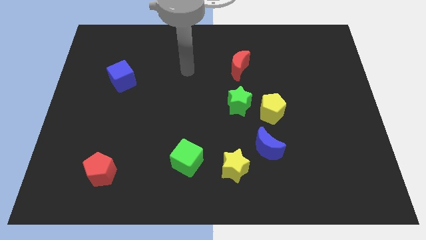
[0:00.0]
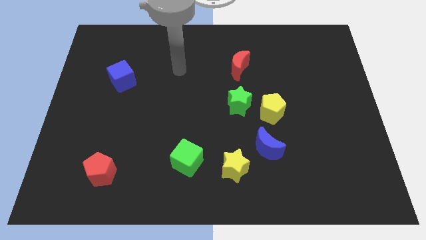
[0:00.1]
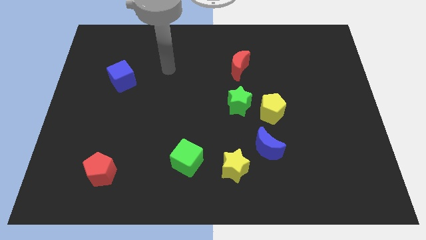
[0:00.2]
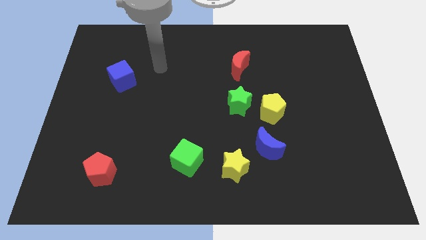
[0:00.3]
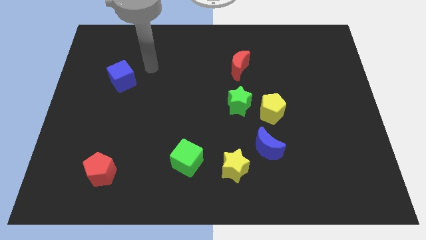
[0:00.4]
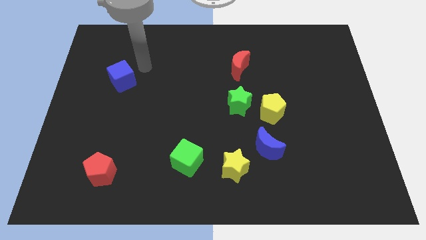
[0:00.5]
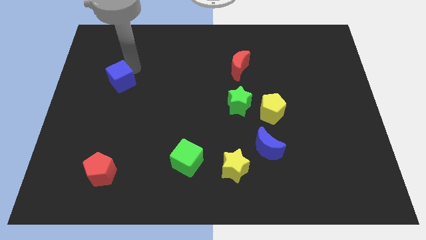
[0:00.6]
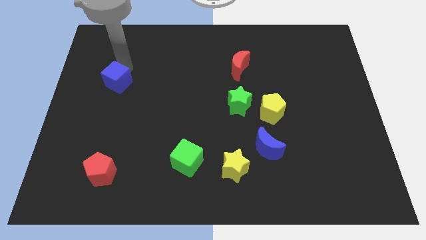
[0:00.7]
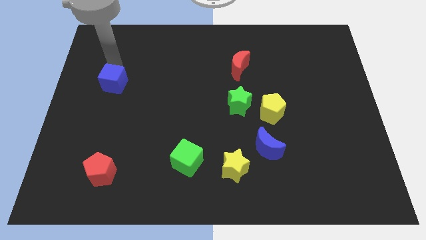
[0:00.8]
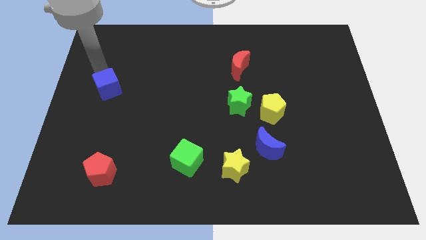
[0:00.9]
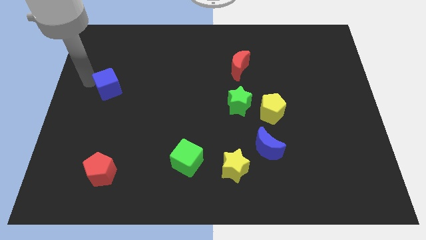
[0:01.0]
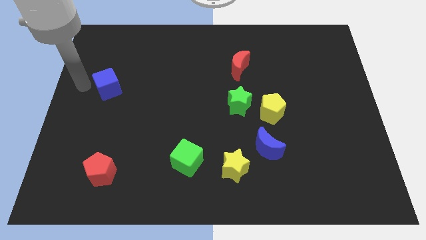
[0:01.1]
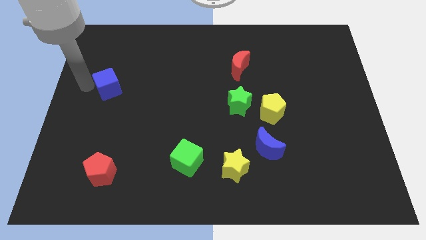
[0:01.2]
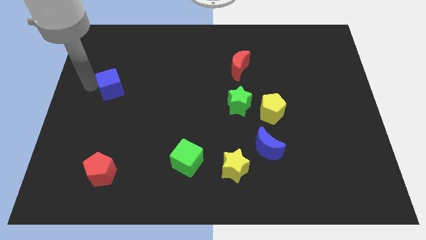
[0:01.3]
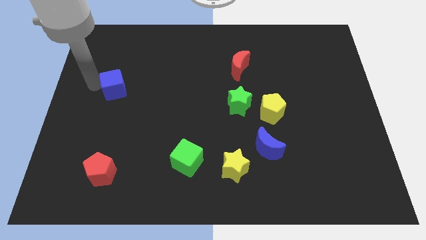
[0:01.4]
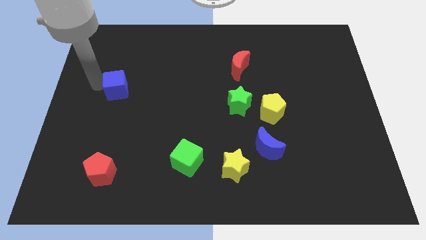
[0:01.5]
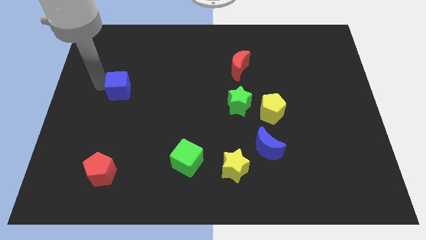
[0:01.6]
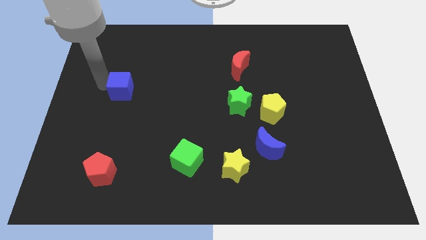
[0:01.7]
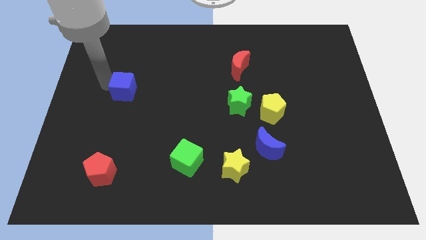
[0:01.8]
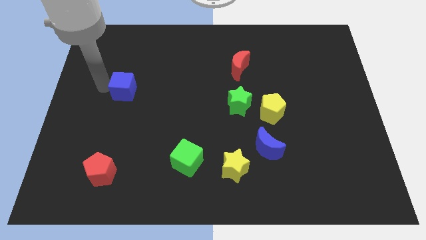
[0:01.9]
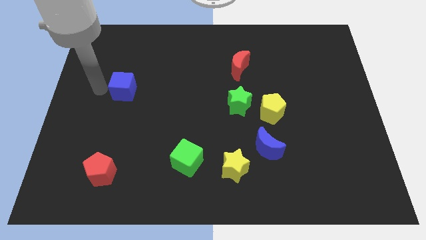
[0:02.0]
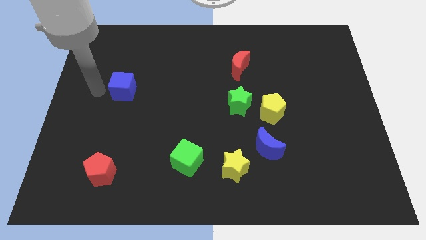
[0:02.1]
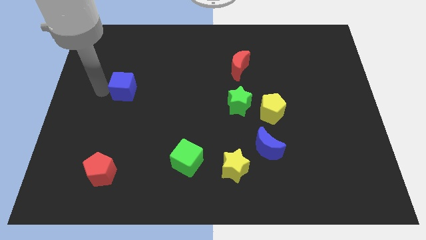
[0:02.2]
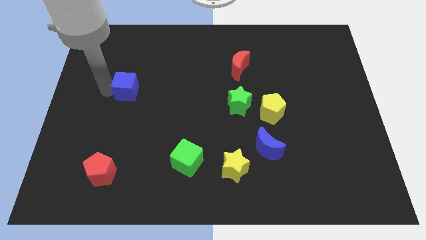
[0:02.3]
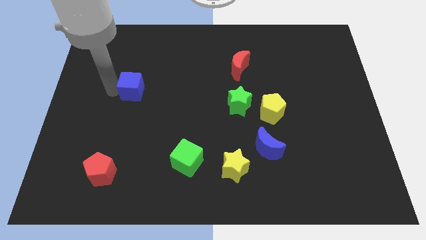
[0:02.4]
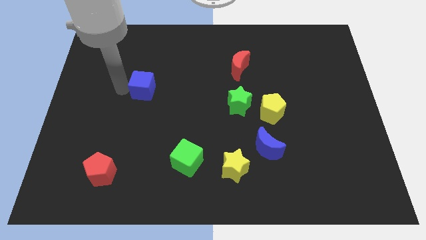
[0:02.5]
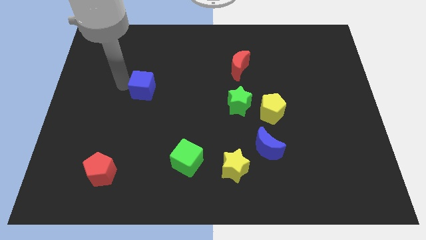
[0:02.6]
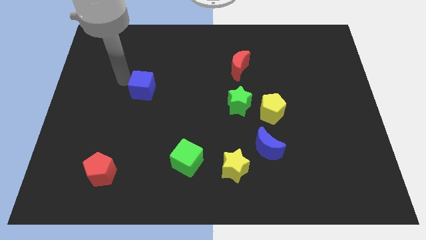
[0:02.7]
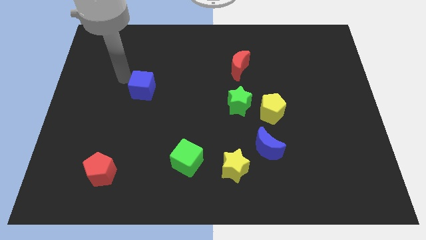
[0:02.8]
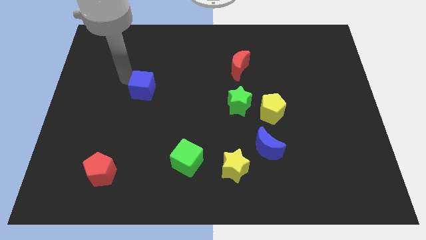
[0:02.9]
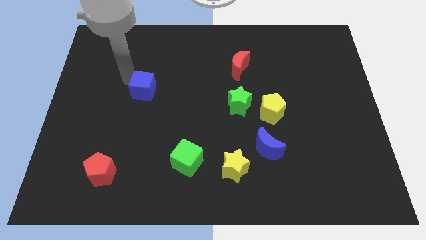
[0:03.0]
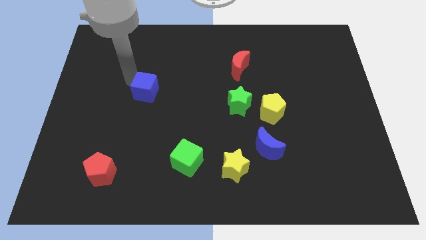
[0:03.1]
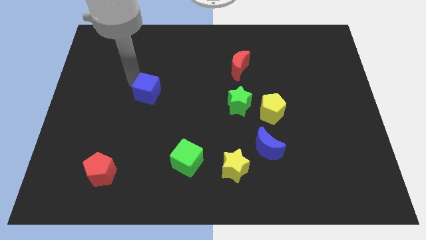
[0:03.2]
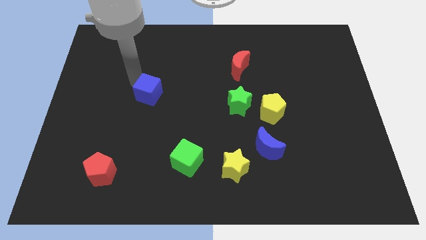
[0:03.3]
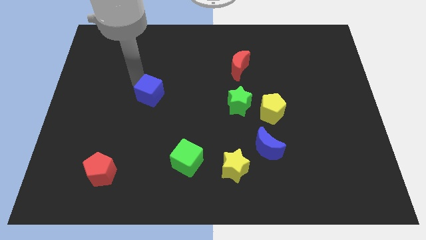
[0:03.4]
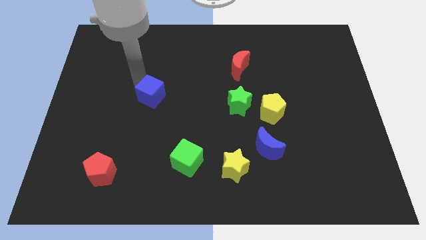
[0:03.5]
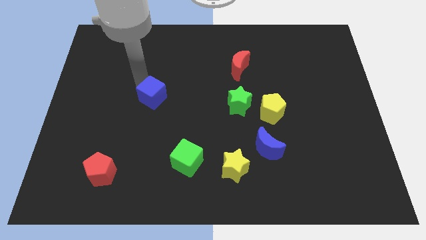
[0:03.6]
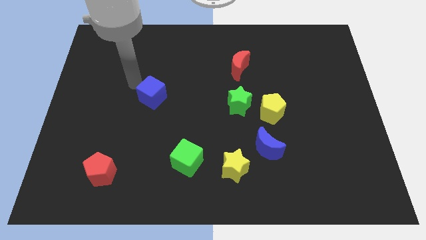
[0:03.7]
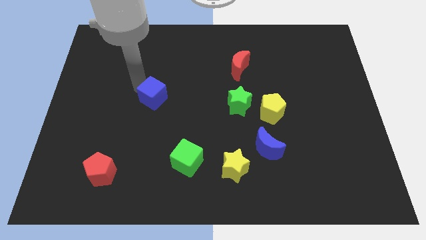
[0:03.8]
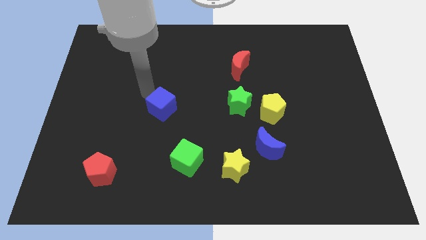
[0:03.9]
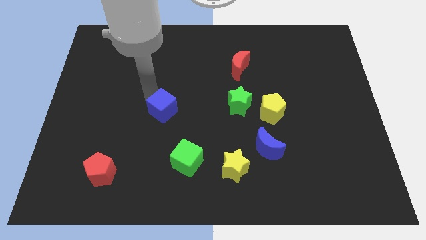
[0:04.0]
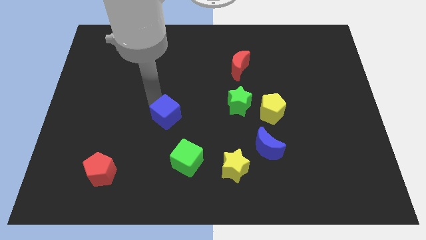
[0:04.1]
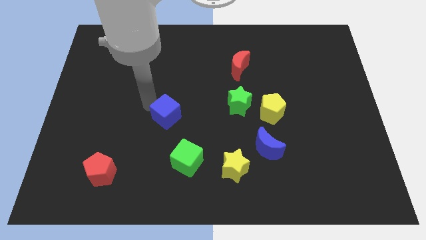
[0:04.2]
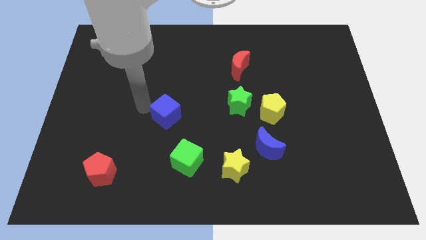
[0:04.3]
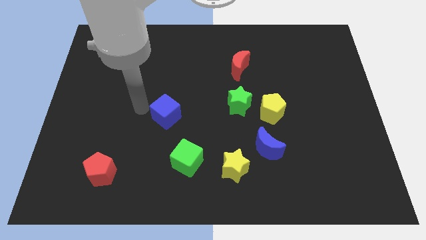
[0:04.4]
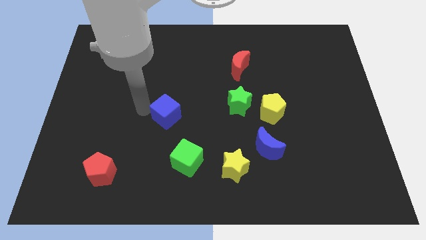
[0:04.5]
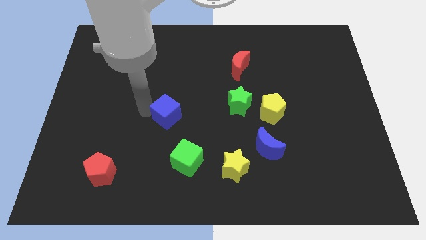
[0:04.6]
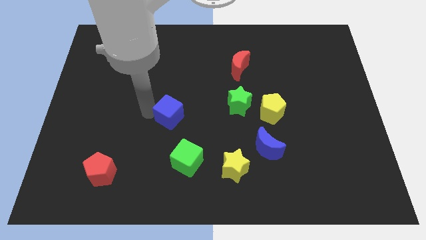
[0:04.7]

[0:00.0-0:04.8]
slide the blue cube to the top of the green cube

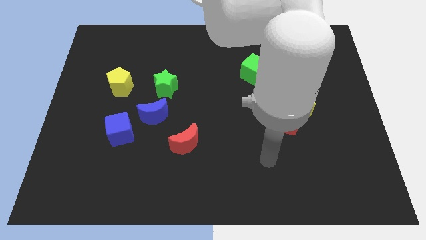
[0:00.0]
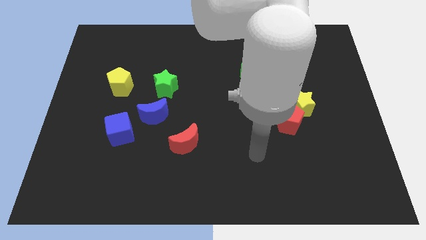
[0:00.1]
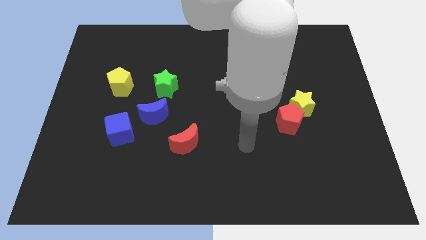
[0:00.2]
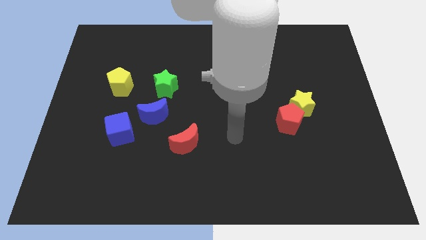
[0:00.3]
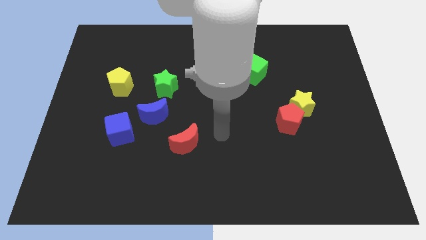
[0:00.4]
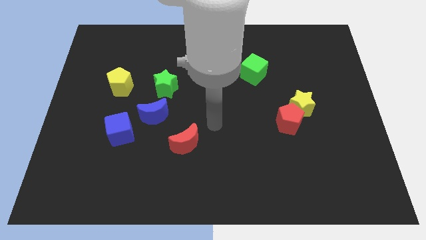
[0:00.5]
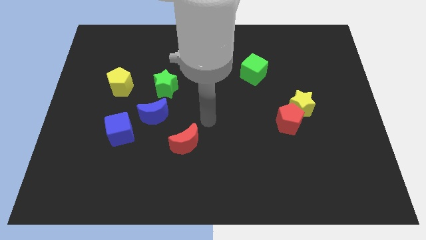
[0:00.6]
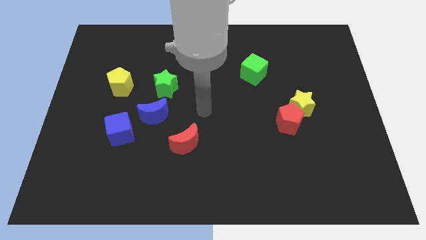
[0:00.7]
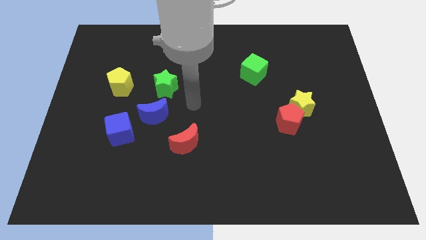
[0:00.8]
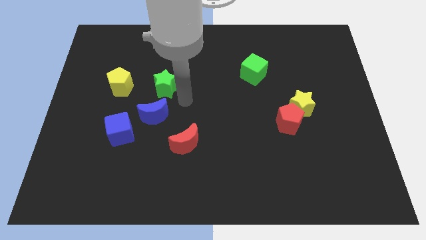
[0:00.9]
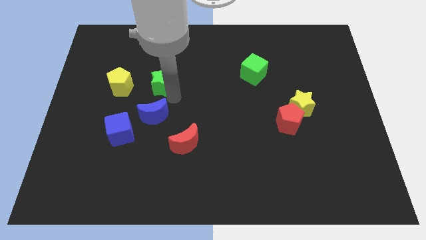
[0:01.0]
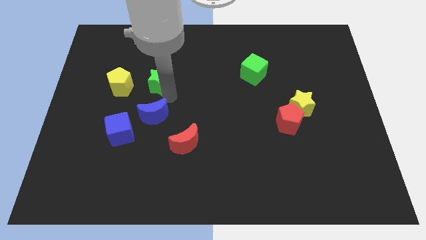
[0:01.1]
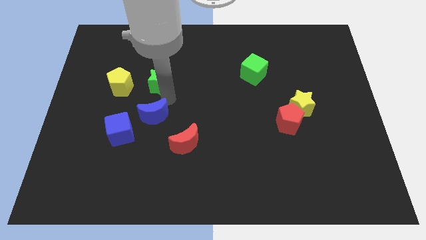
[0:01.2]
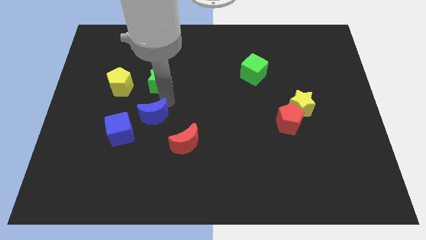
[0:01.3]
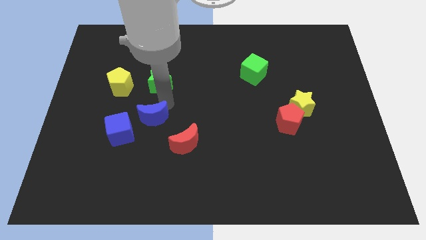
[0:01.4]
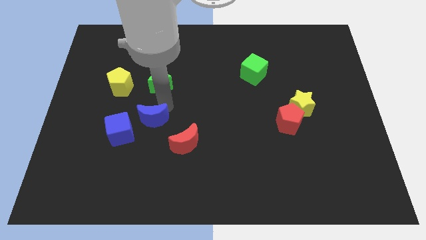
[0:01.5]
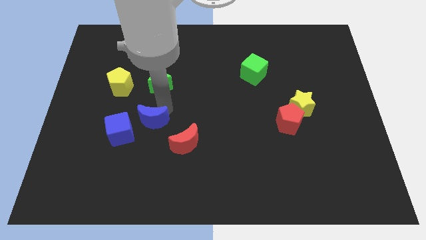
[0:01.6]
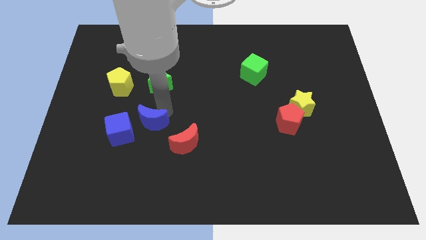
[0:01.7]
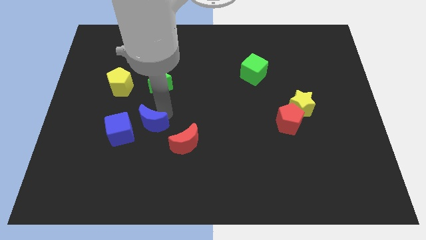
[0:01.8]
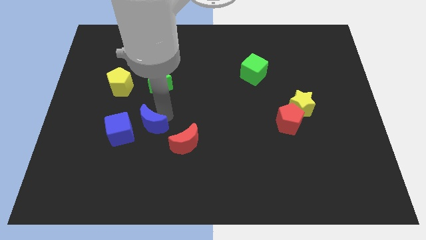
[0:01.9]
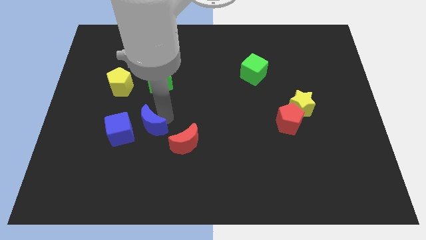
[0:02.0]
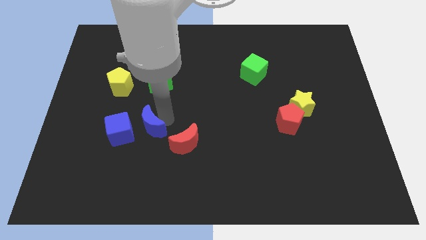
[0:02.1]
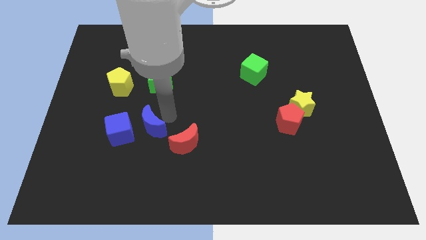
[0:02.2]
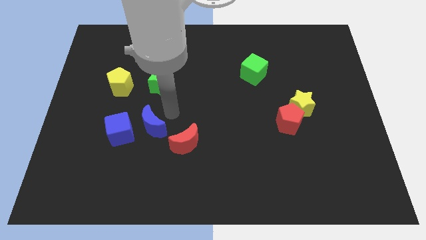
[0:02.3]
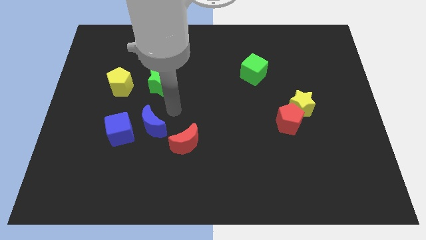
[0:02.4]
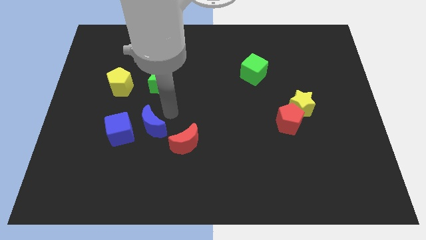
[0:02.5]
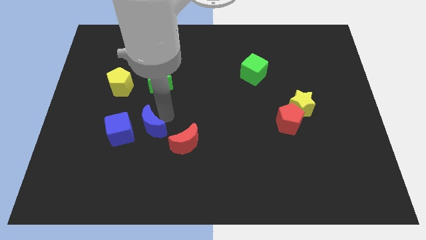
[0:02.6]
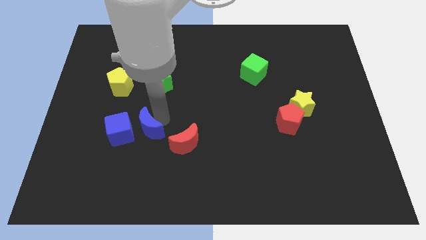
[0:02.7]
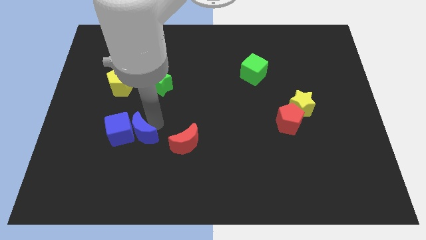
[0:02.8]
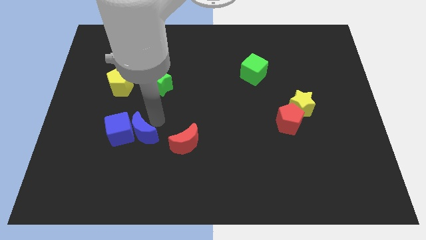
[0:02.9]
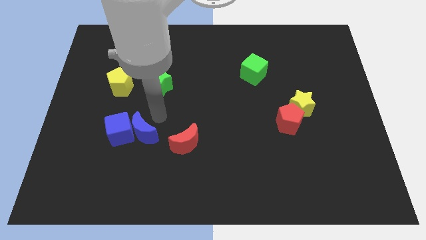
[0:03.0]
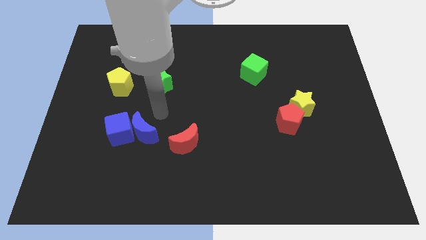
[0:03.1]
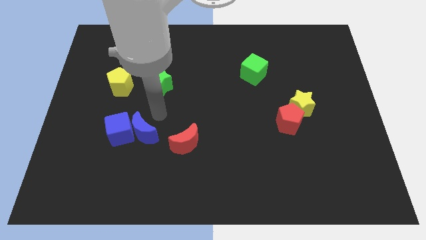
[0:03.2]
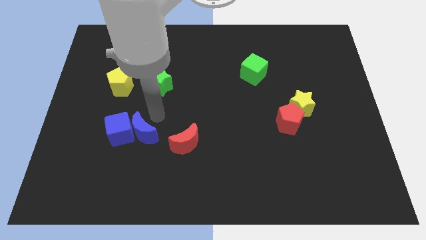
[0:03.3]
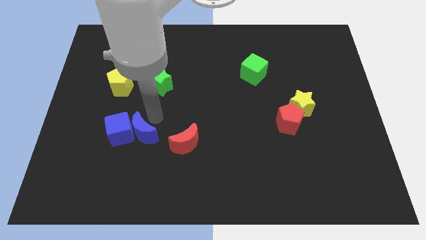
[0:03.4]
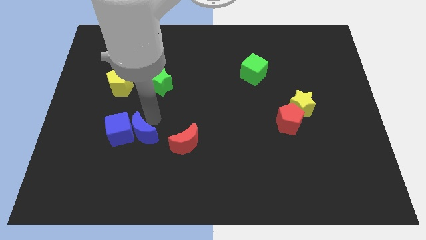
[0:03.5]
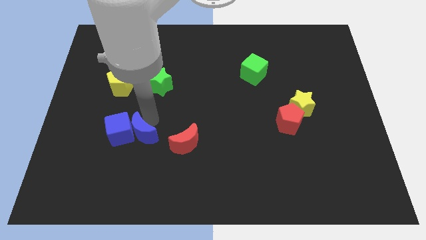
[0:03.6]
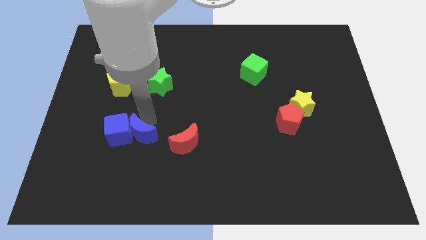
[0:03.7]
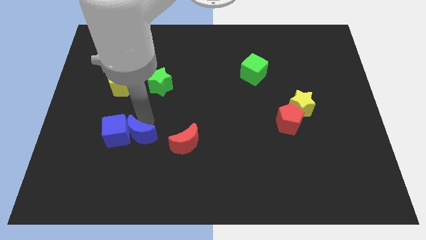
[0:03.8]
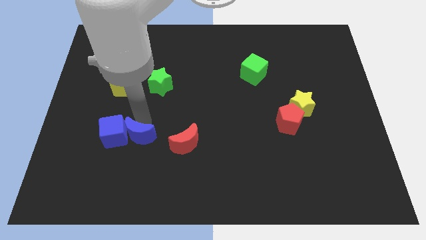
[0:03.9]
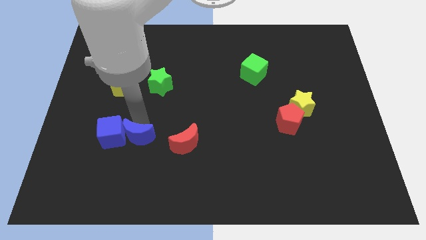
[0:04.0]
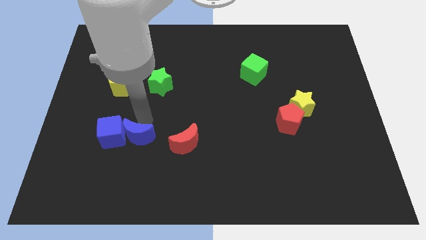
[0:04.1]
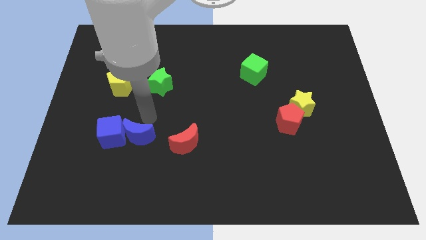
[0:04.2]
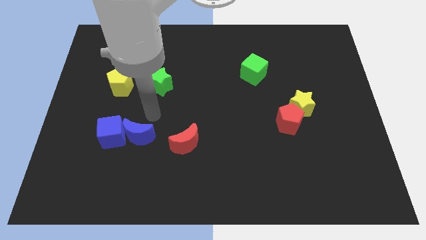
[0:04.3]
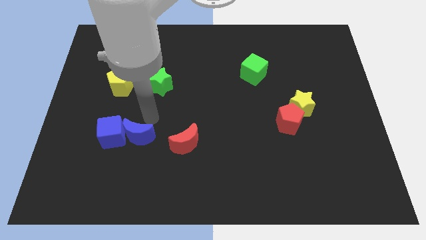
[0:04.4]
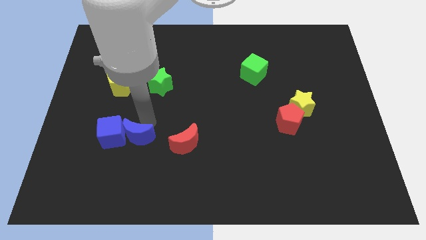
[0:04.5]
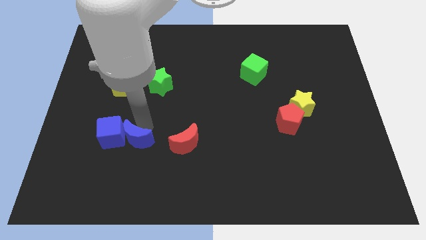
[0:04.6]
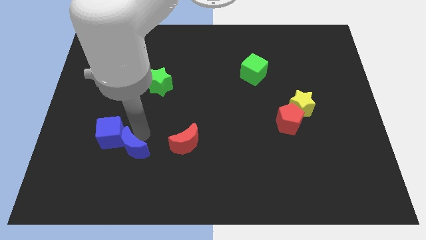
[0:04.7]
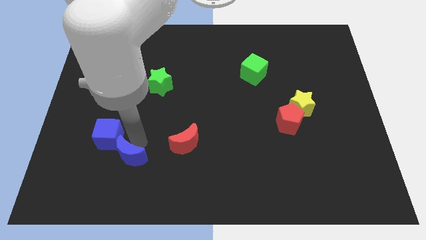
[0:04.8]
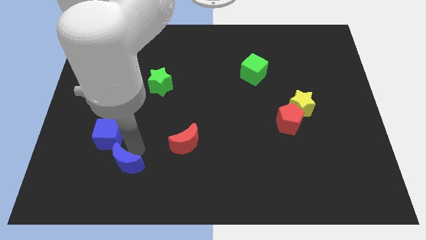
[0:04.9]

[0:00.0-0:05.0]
put the blue moon to the bottom side of the blue cube
